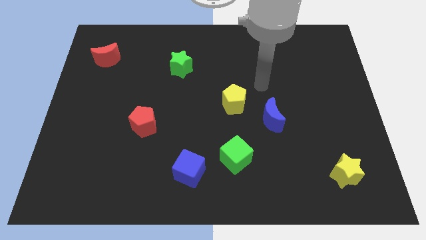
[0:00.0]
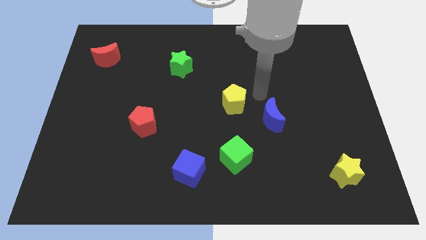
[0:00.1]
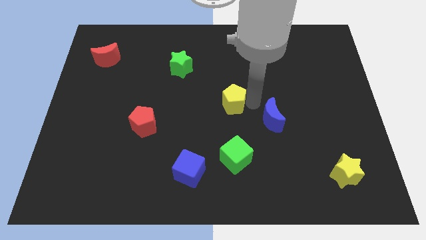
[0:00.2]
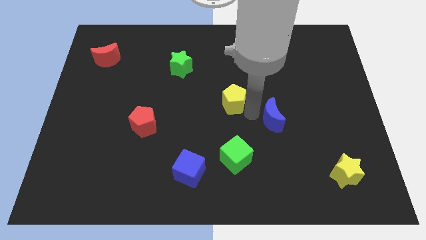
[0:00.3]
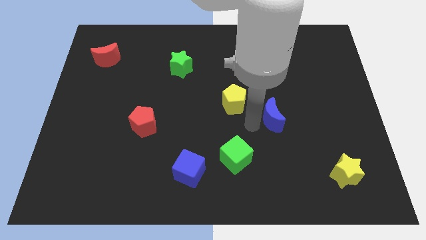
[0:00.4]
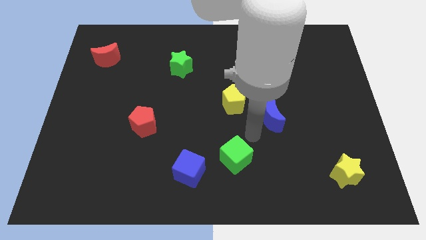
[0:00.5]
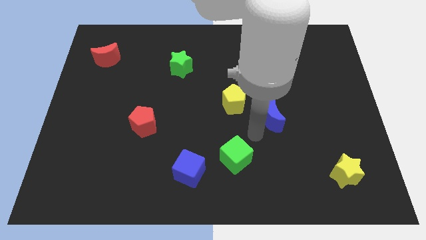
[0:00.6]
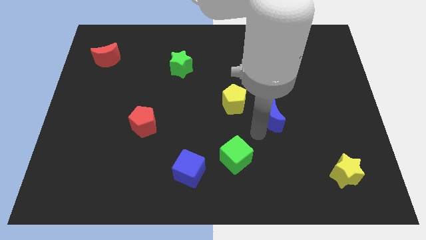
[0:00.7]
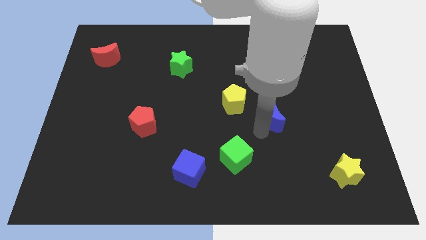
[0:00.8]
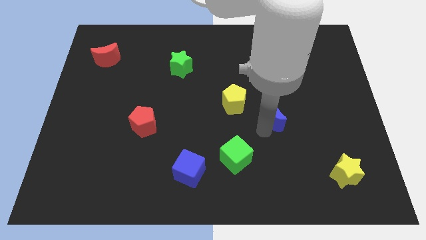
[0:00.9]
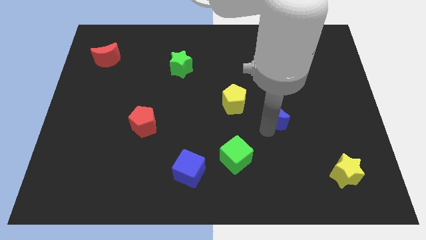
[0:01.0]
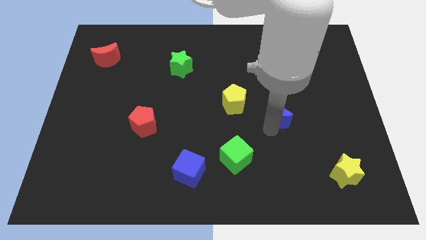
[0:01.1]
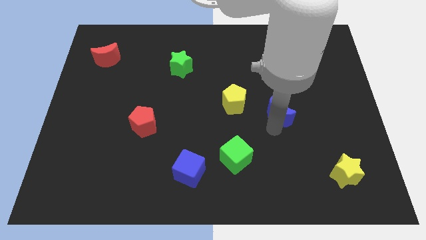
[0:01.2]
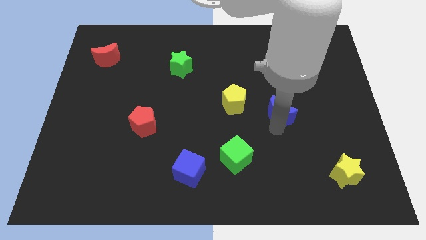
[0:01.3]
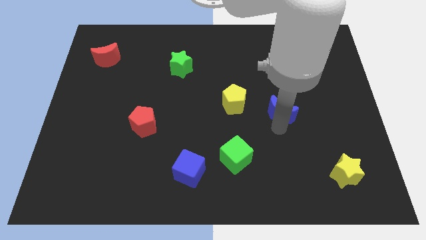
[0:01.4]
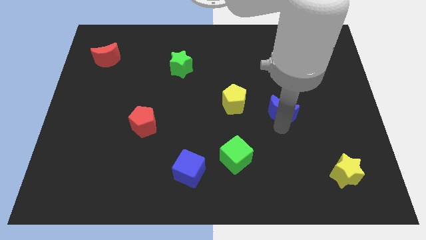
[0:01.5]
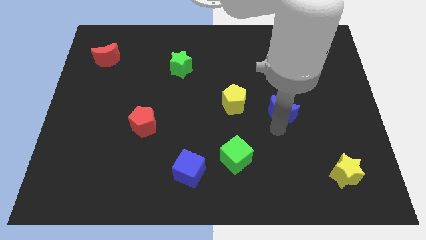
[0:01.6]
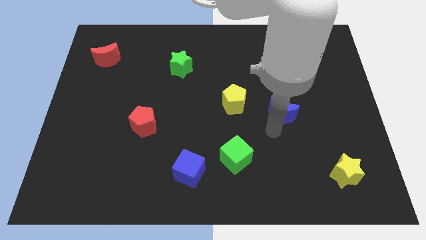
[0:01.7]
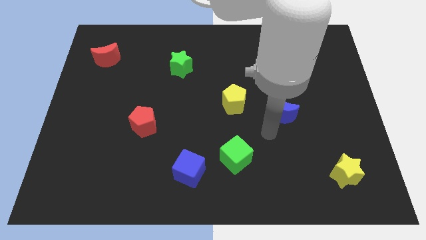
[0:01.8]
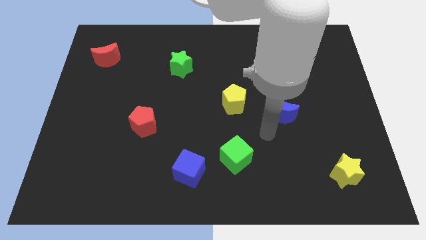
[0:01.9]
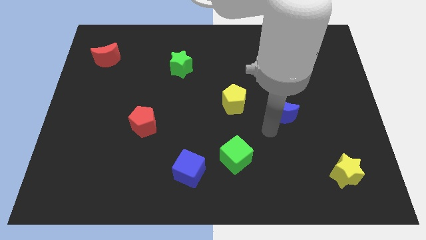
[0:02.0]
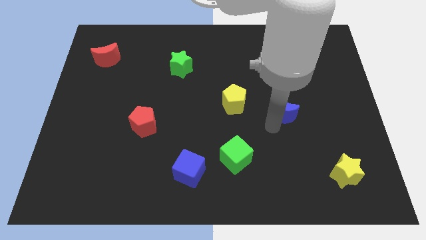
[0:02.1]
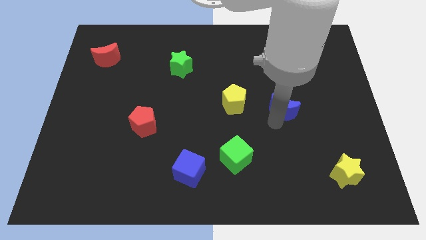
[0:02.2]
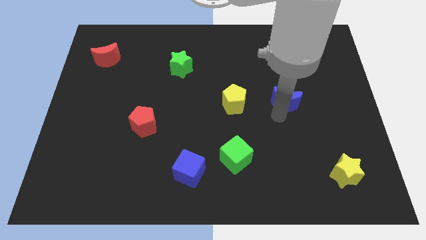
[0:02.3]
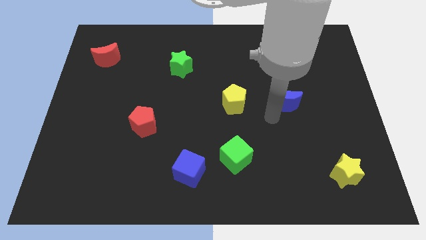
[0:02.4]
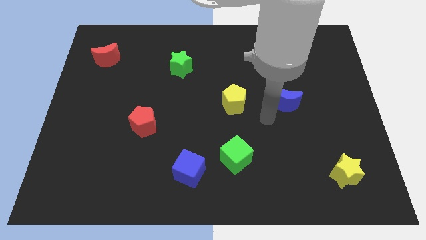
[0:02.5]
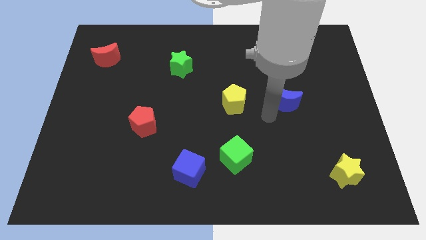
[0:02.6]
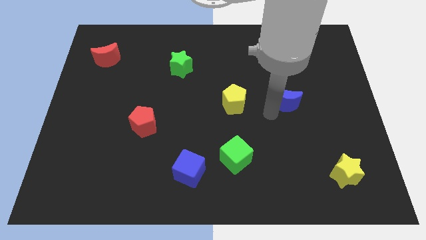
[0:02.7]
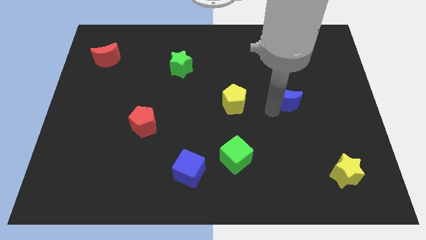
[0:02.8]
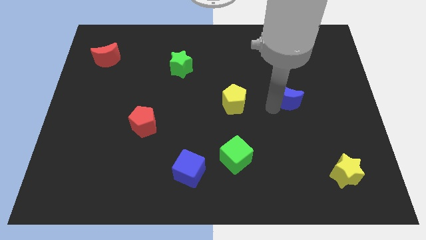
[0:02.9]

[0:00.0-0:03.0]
slightly move the blue moon upwards and then to the right

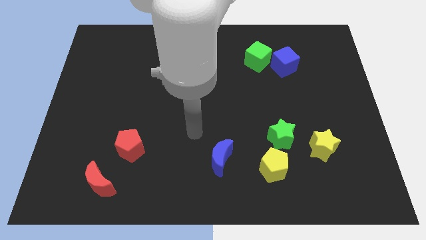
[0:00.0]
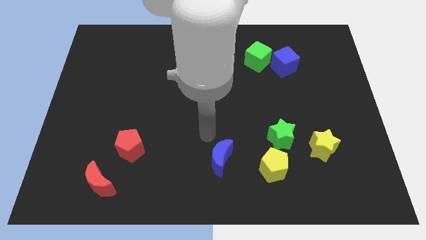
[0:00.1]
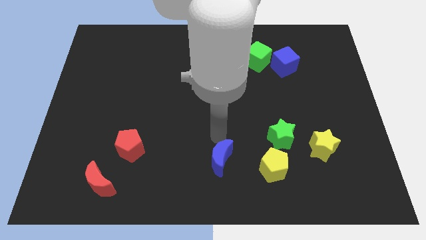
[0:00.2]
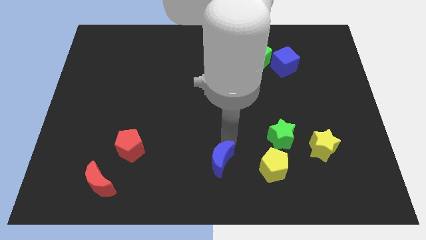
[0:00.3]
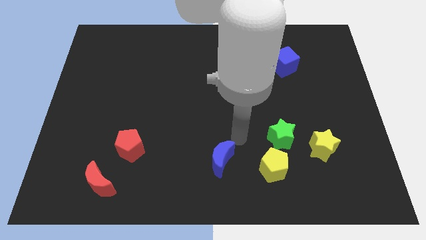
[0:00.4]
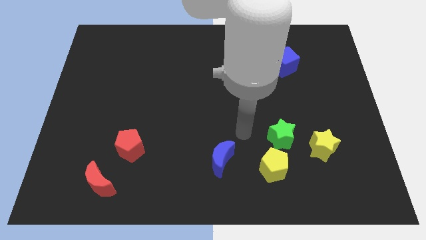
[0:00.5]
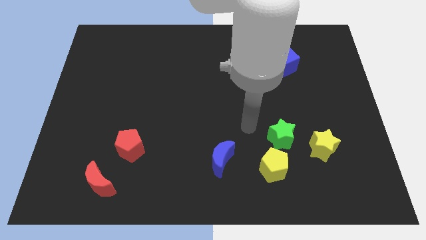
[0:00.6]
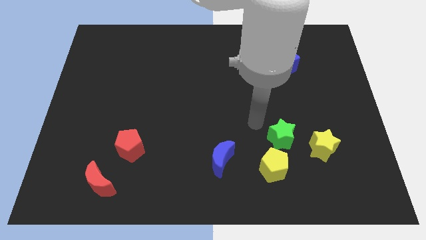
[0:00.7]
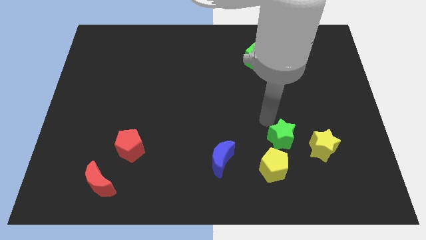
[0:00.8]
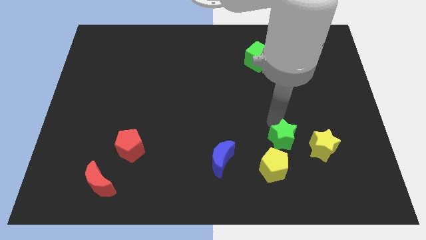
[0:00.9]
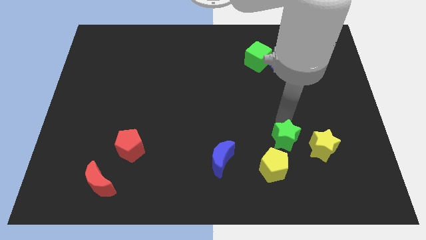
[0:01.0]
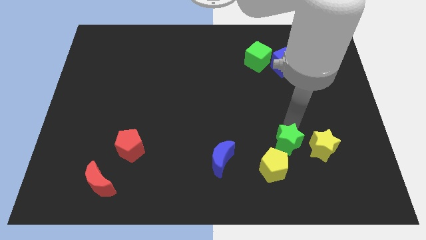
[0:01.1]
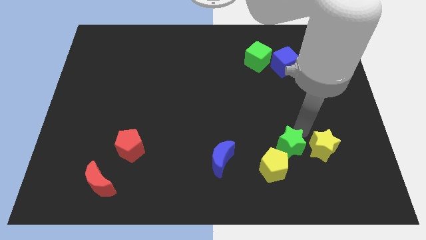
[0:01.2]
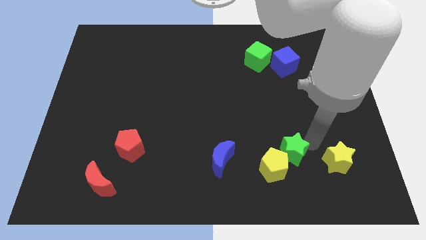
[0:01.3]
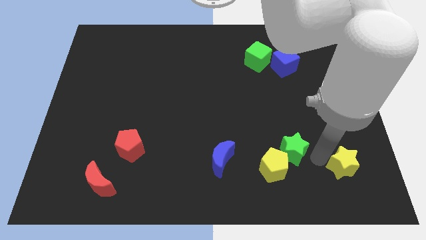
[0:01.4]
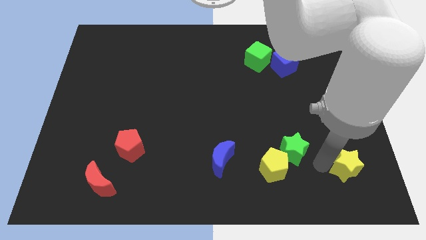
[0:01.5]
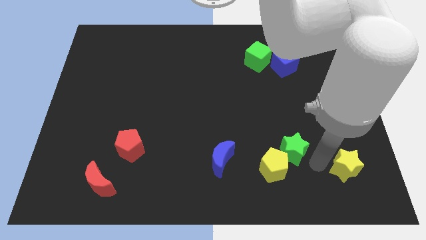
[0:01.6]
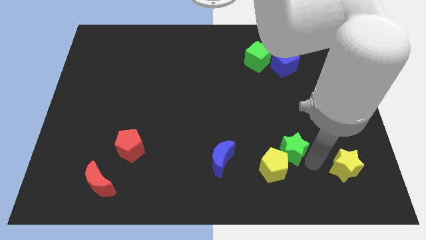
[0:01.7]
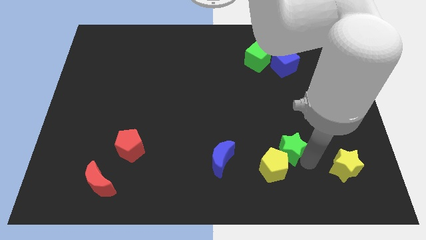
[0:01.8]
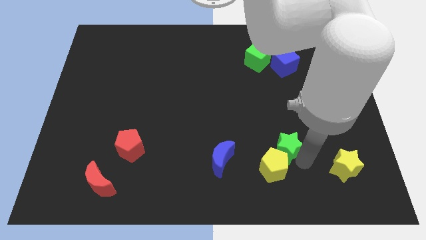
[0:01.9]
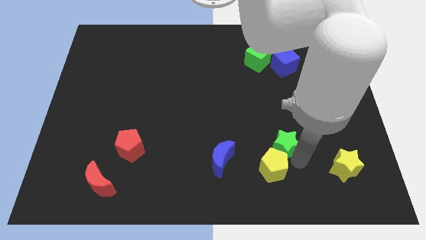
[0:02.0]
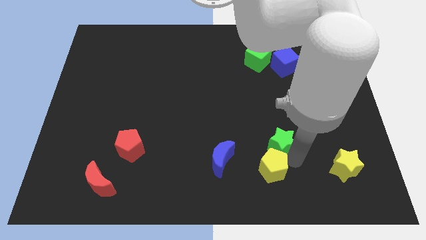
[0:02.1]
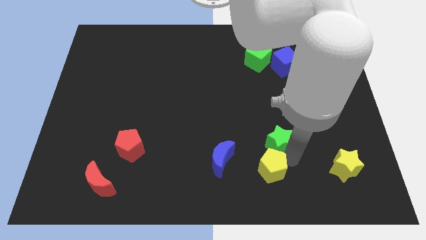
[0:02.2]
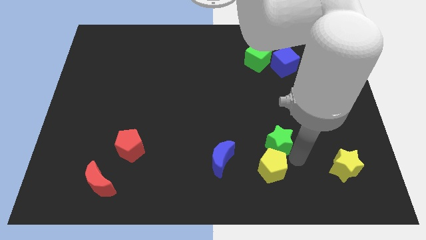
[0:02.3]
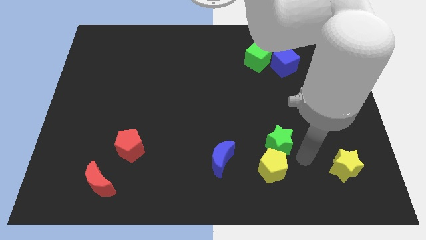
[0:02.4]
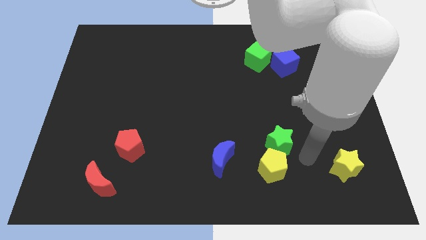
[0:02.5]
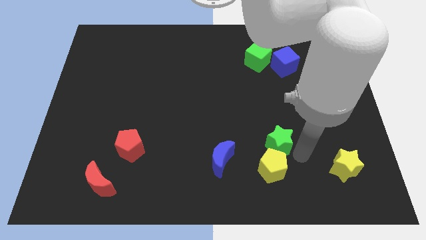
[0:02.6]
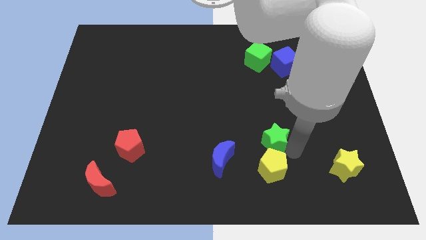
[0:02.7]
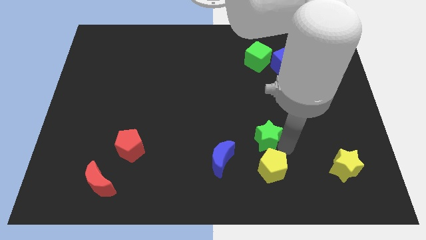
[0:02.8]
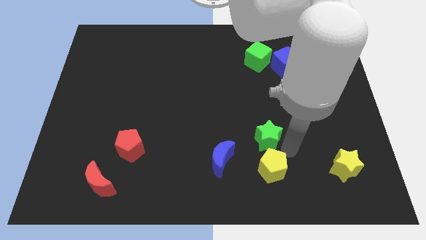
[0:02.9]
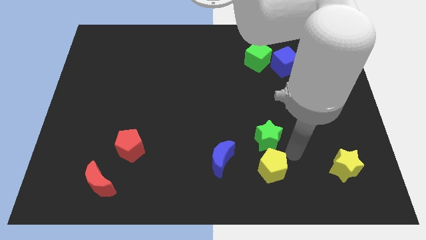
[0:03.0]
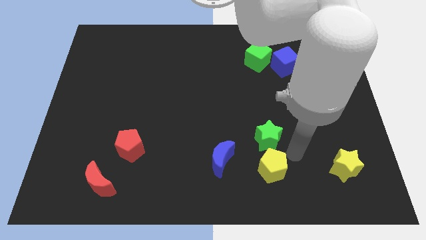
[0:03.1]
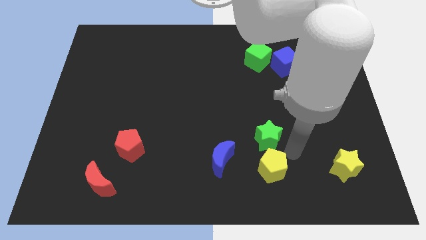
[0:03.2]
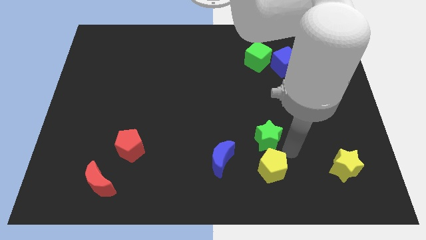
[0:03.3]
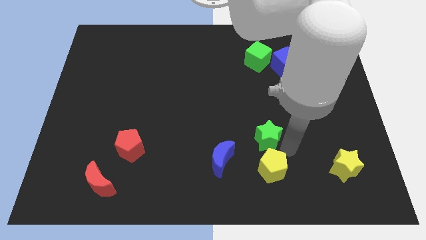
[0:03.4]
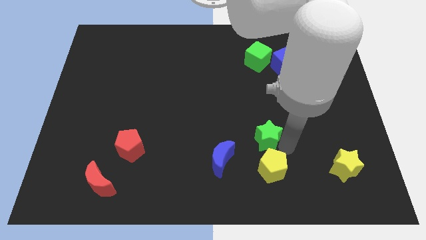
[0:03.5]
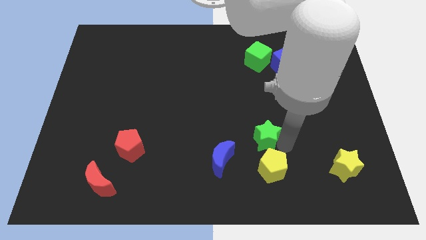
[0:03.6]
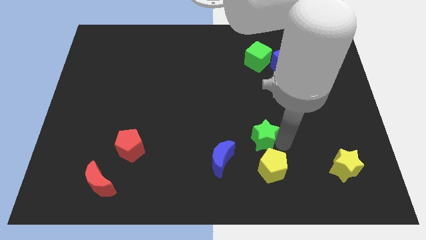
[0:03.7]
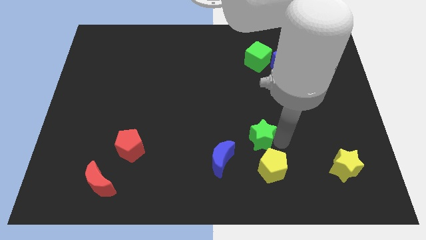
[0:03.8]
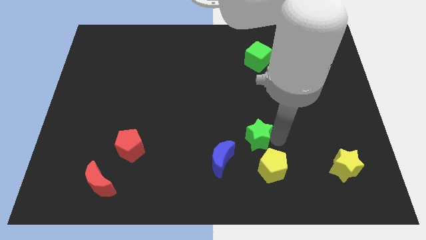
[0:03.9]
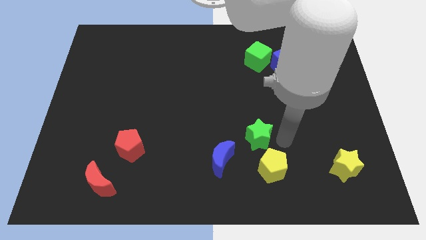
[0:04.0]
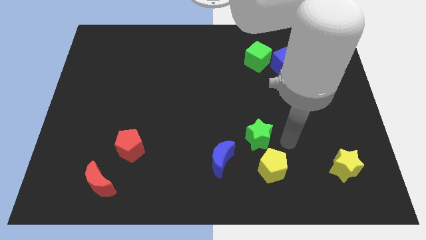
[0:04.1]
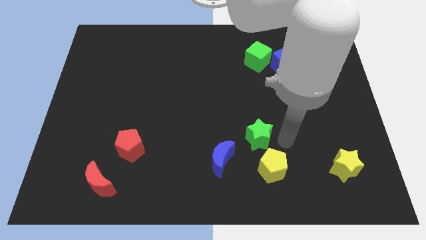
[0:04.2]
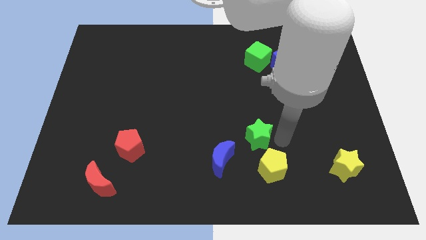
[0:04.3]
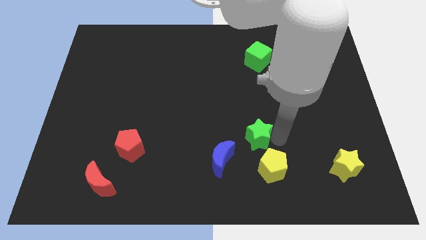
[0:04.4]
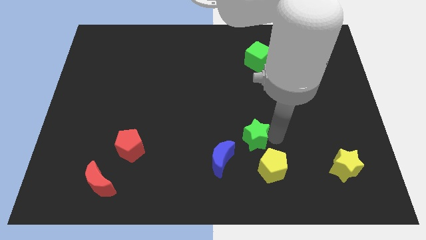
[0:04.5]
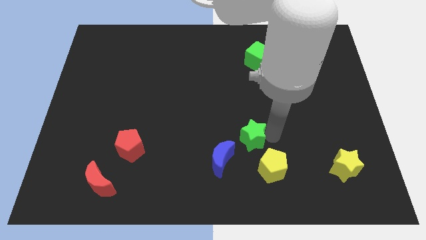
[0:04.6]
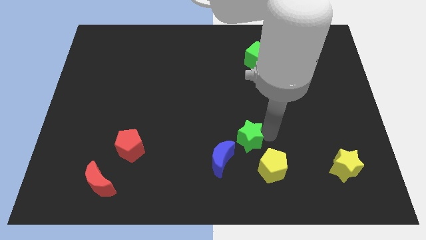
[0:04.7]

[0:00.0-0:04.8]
push the green star a bit left

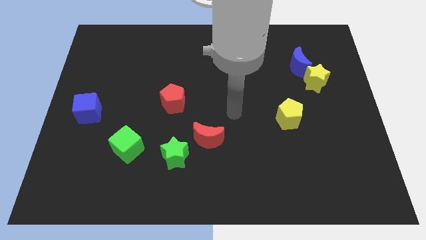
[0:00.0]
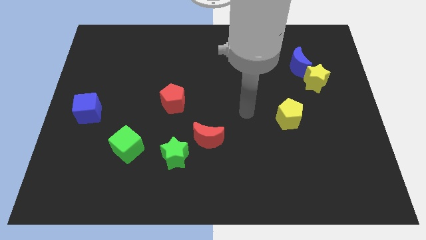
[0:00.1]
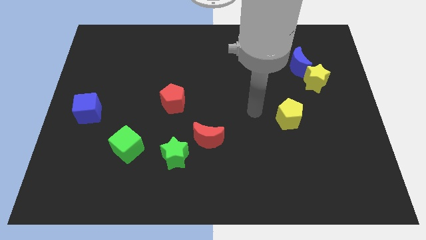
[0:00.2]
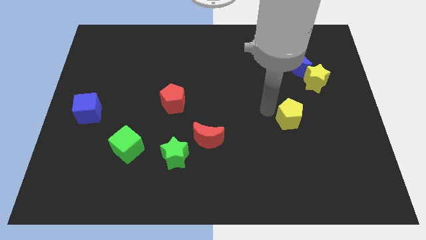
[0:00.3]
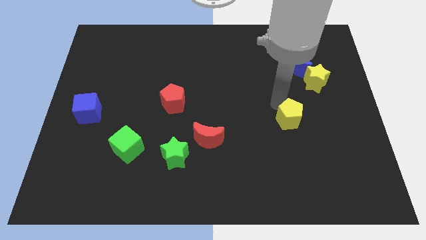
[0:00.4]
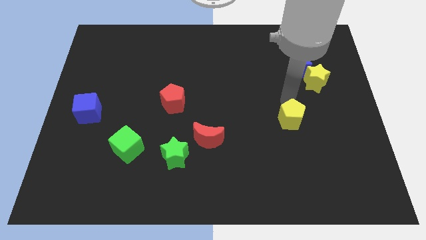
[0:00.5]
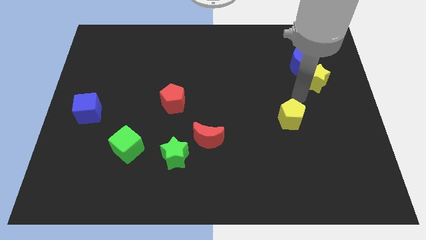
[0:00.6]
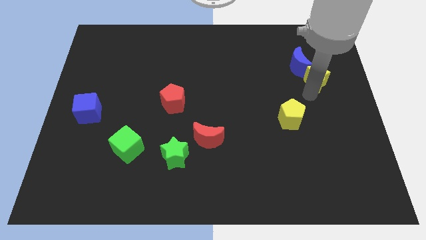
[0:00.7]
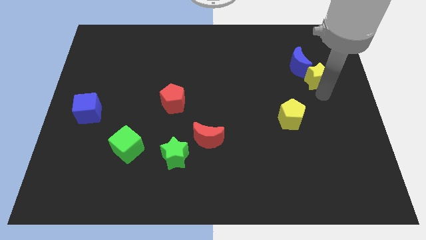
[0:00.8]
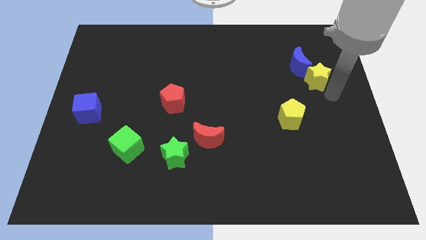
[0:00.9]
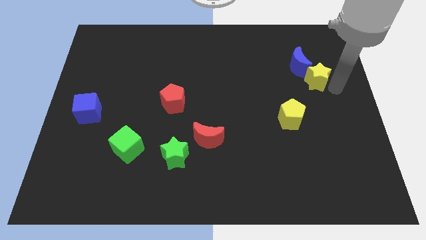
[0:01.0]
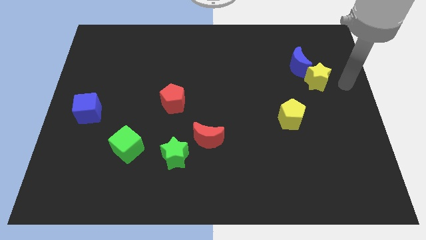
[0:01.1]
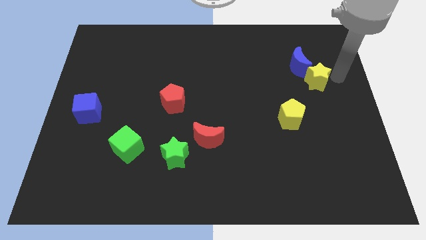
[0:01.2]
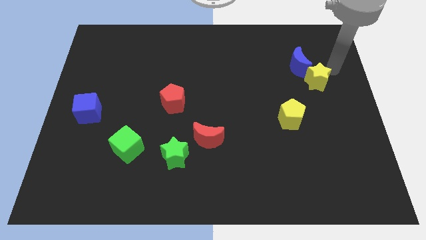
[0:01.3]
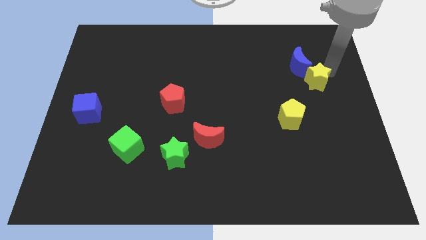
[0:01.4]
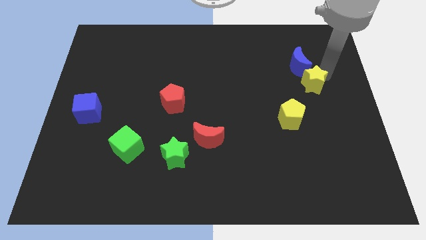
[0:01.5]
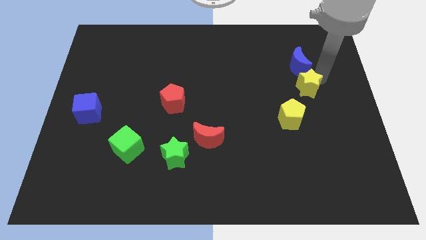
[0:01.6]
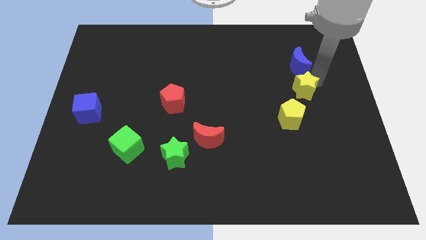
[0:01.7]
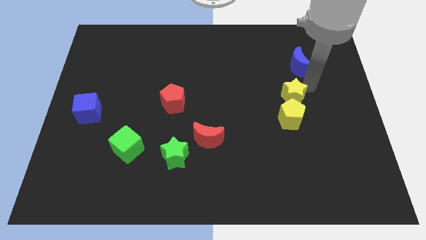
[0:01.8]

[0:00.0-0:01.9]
slightly slide the yellow star down and to the left
